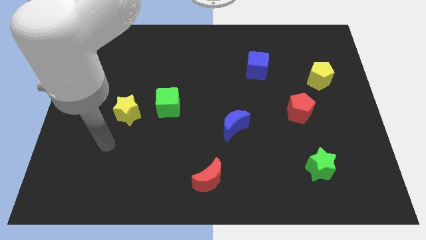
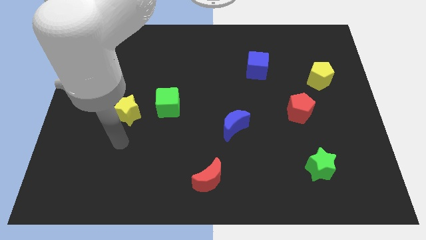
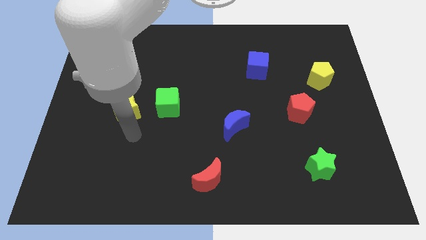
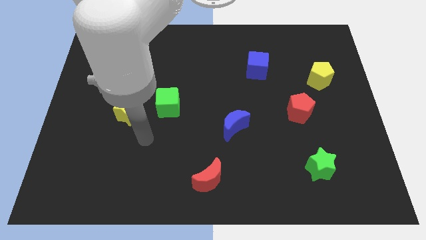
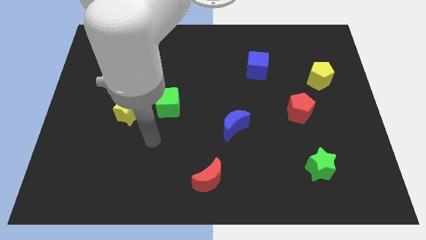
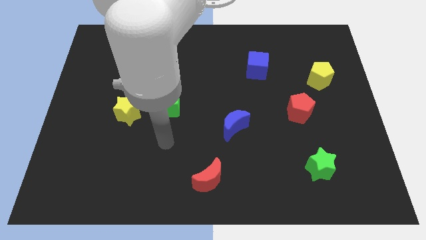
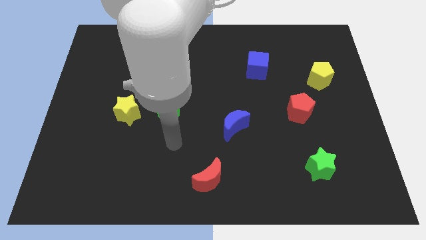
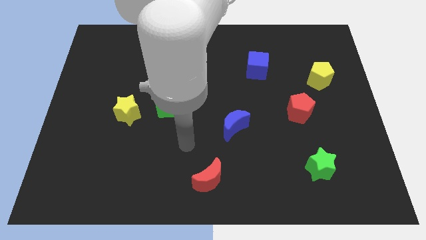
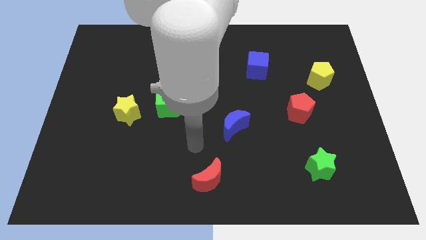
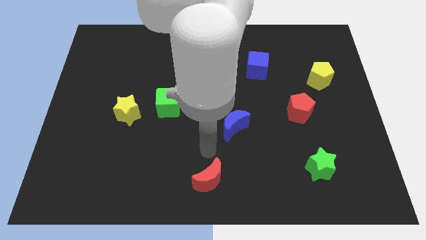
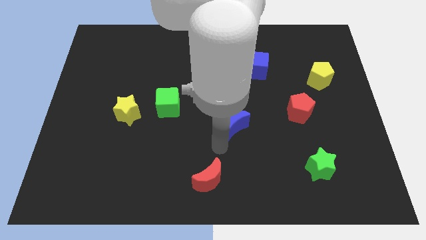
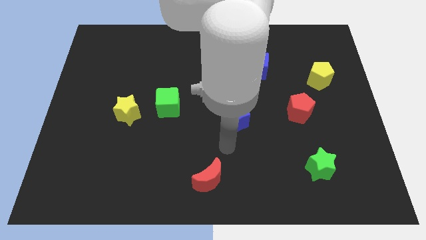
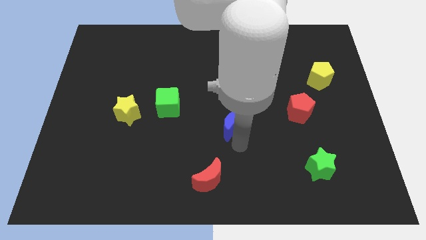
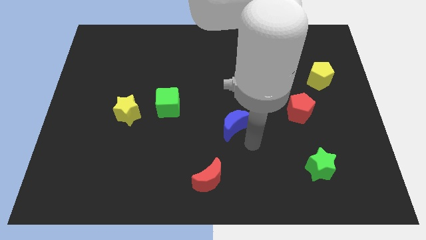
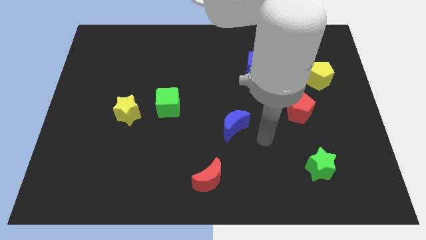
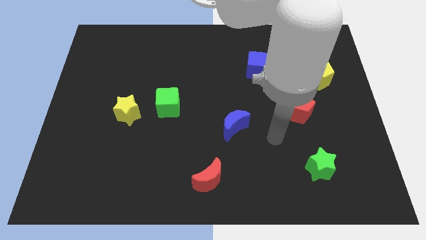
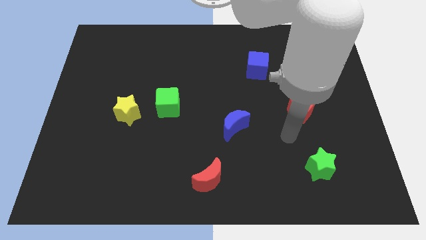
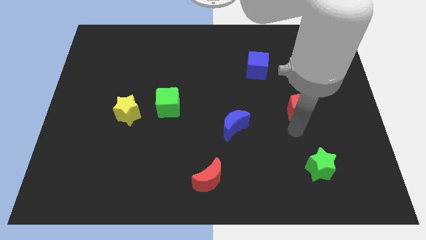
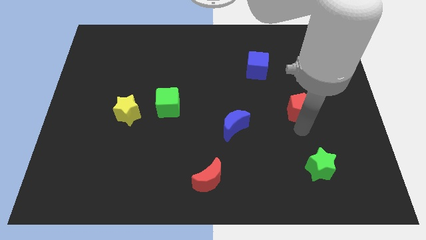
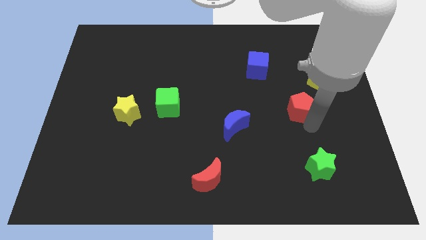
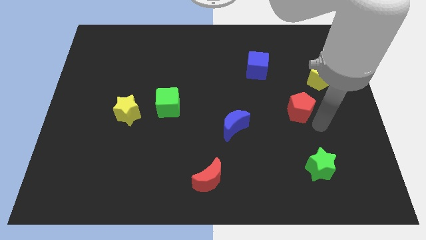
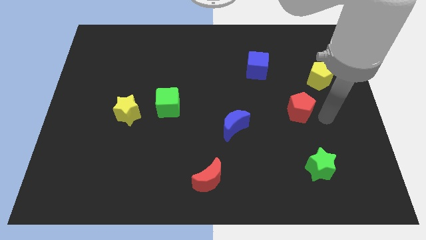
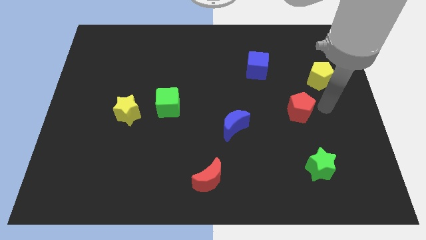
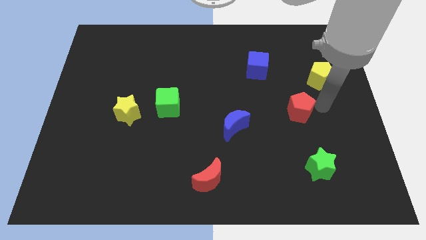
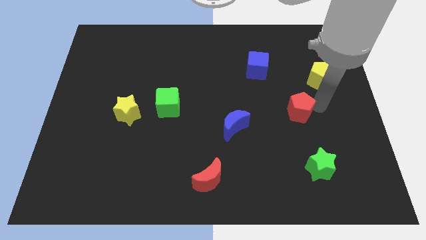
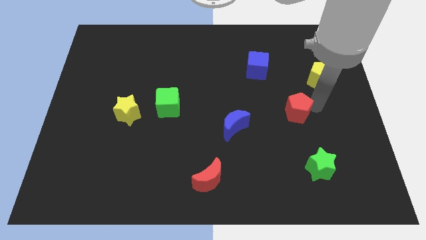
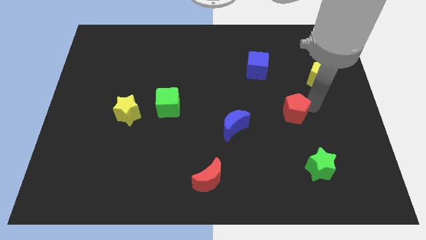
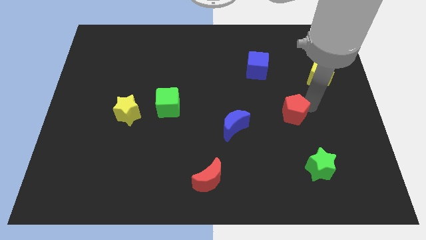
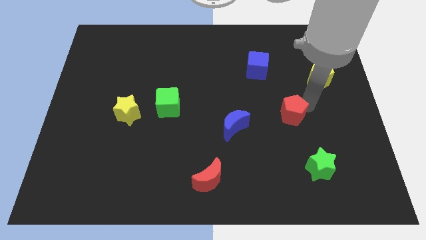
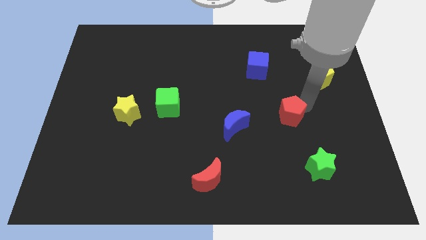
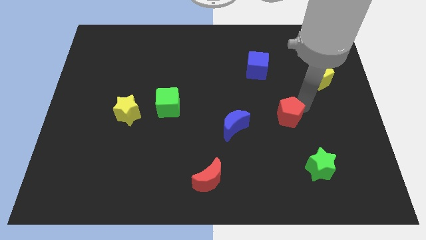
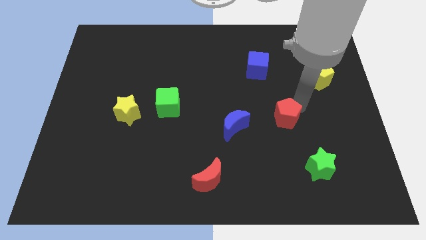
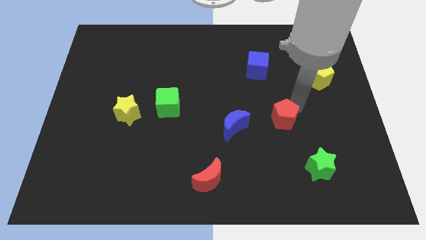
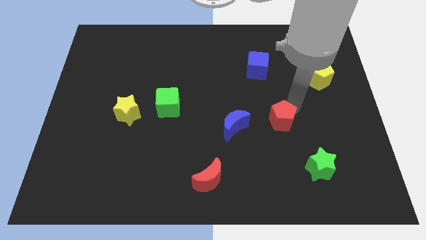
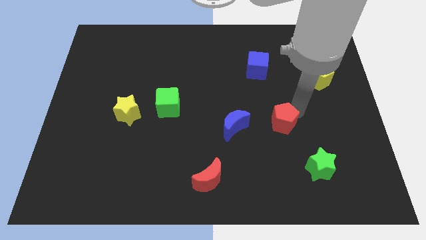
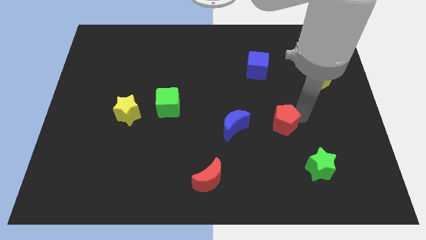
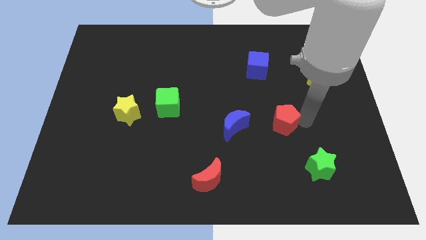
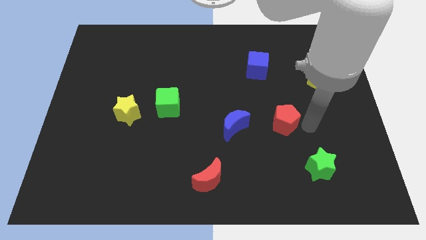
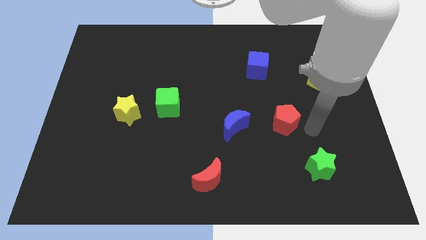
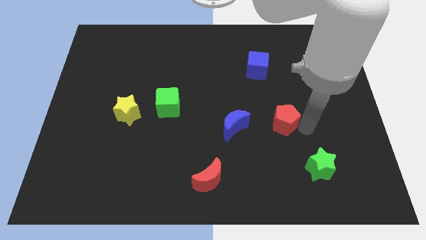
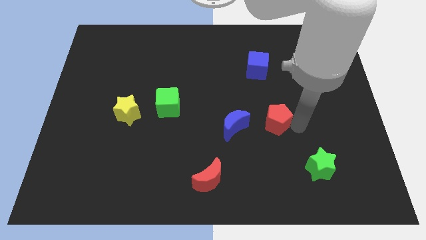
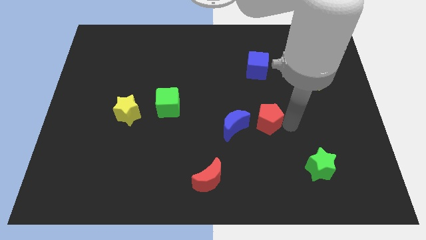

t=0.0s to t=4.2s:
slightly push the red pentagon to the left

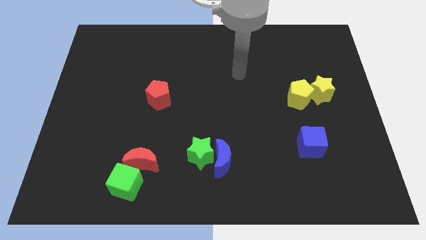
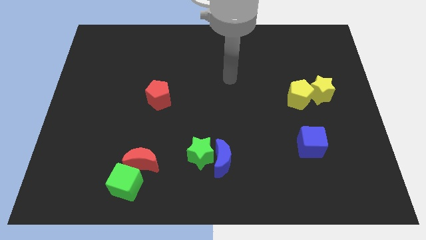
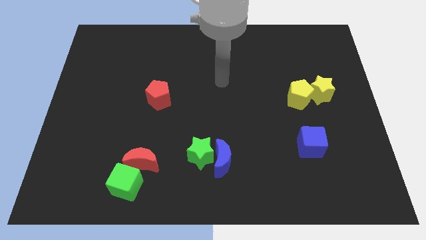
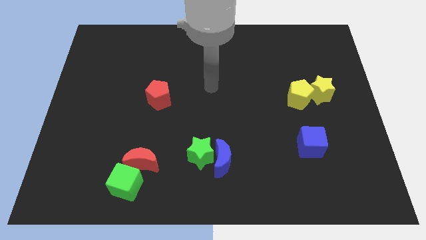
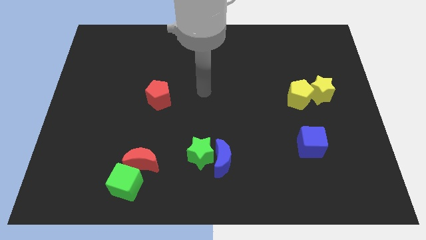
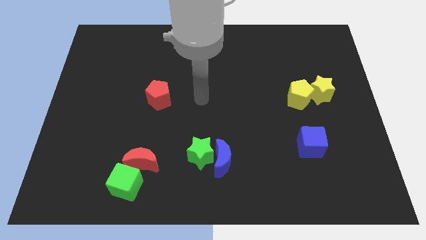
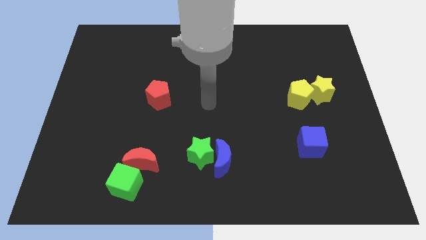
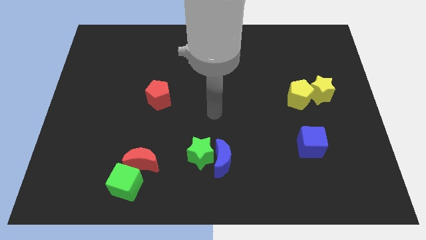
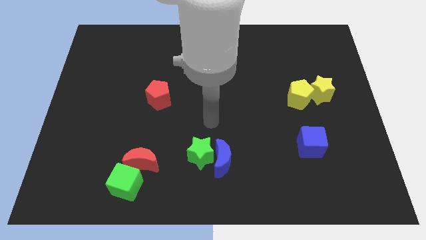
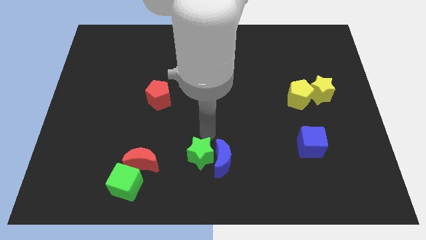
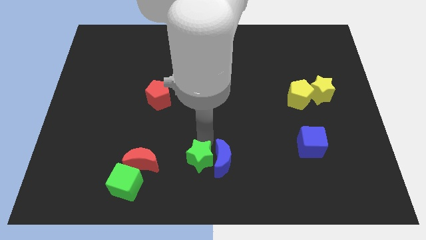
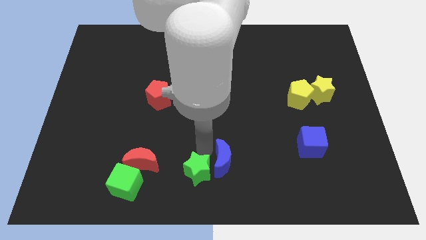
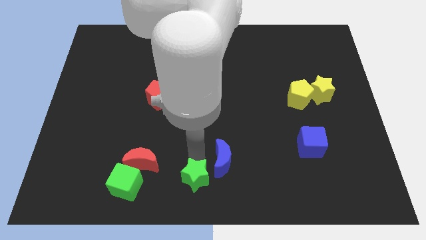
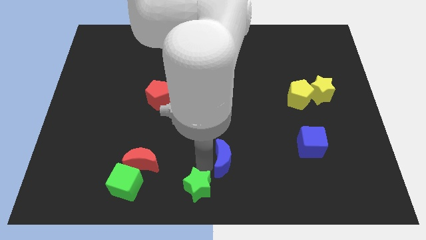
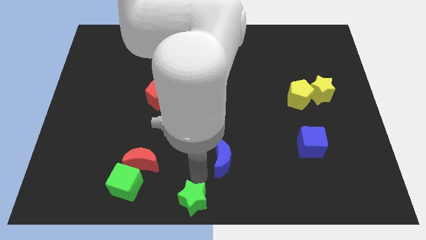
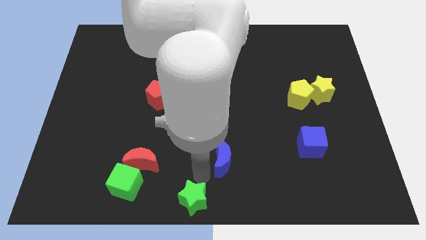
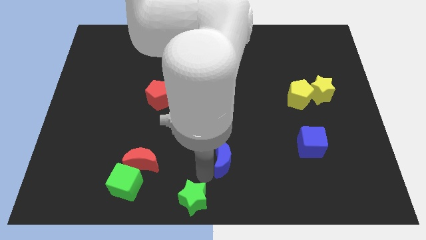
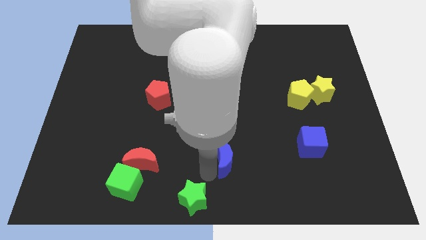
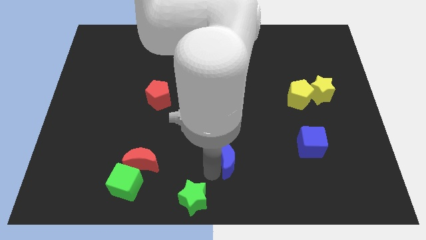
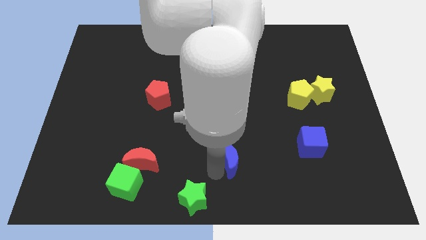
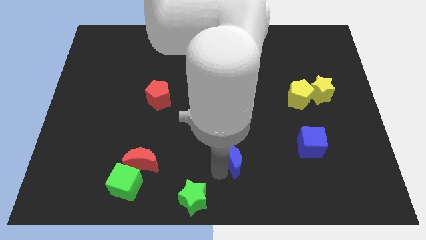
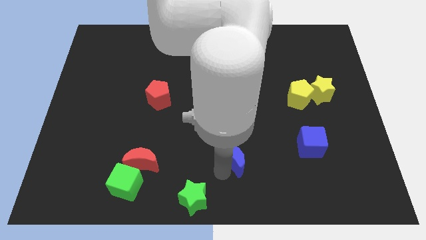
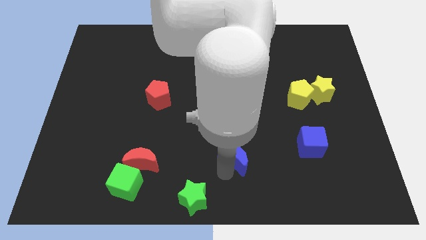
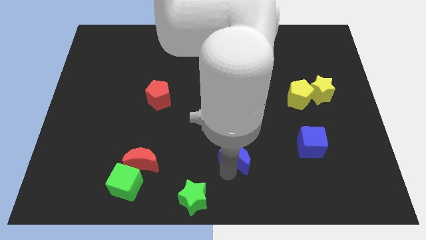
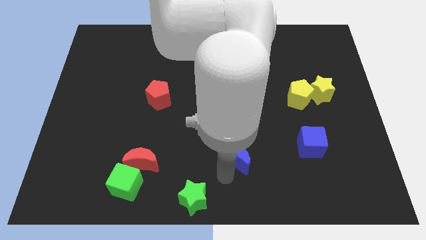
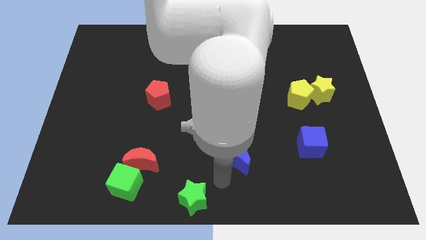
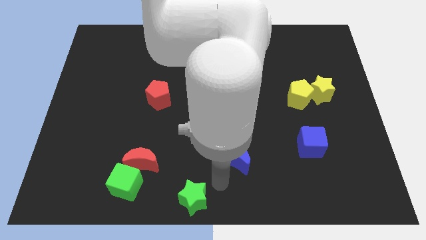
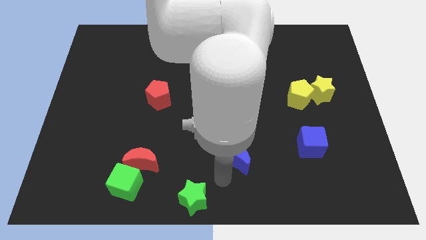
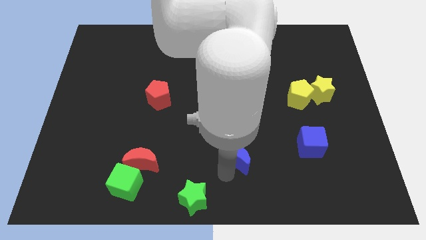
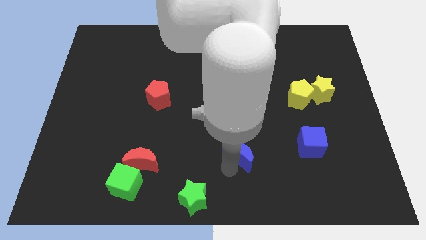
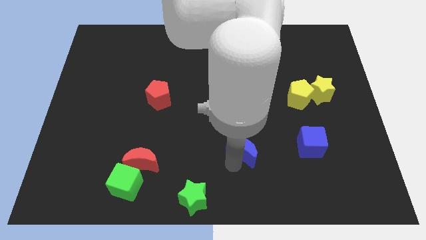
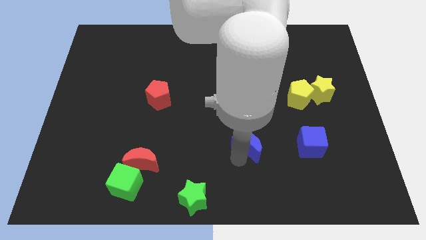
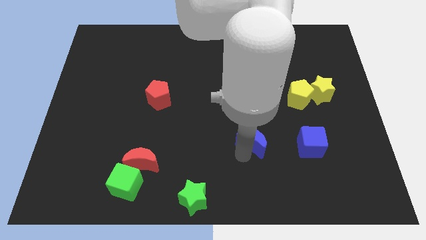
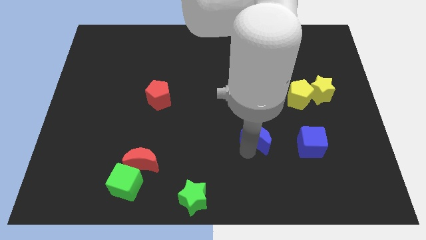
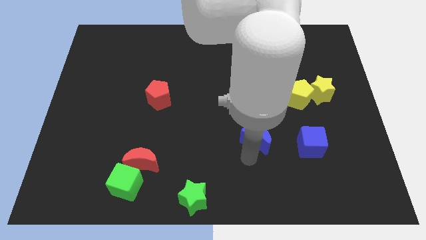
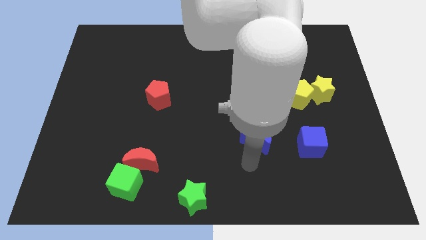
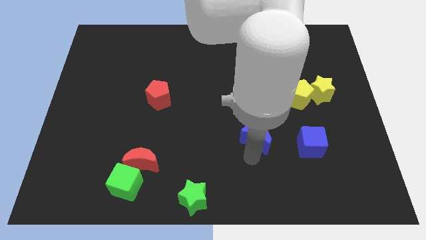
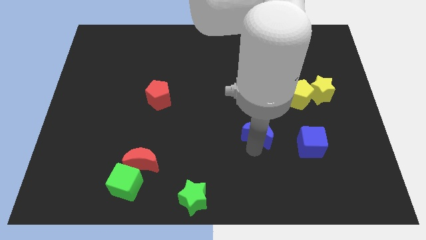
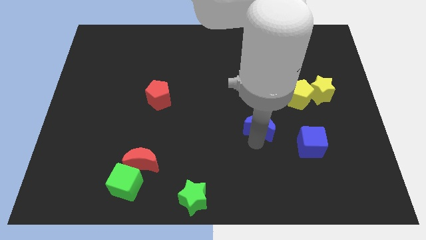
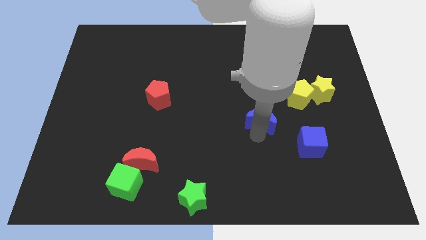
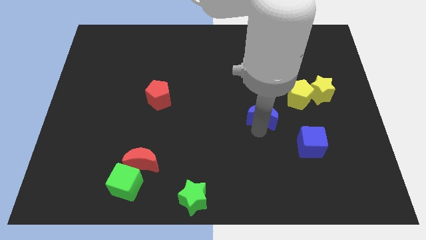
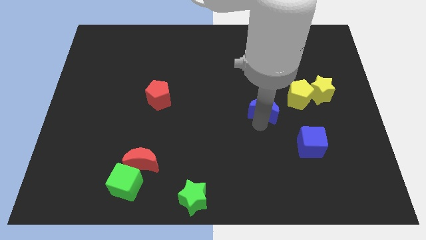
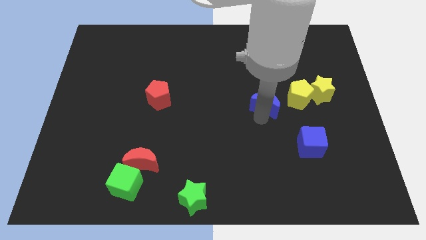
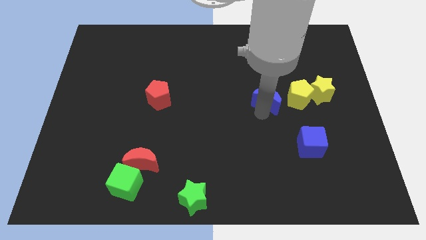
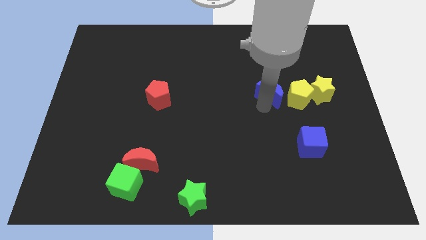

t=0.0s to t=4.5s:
push the blue moon diagonally upwards and to the right
